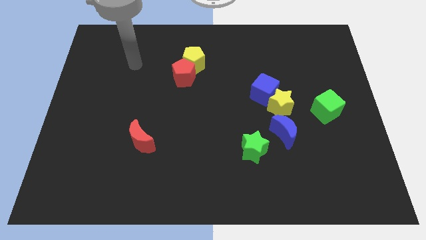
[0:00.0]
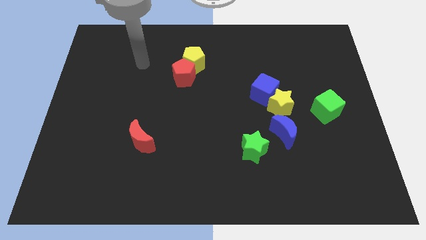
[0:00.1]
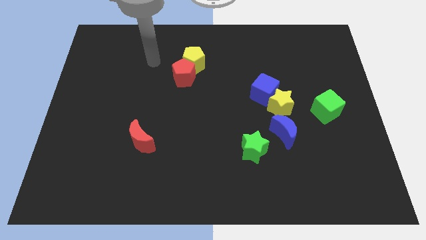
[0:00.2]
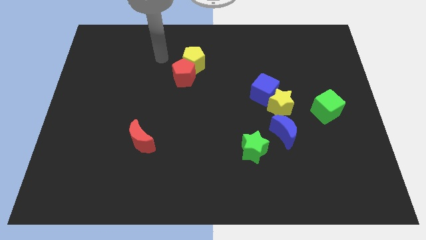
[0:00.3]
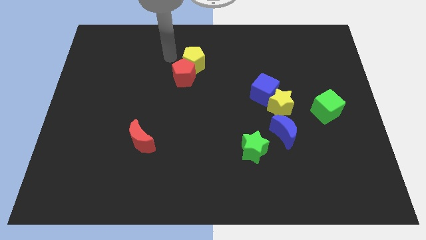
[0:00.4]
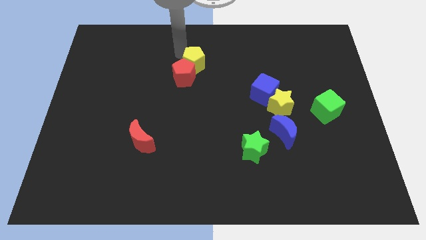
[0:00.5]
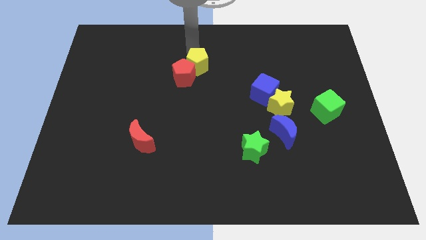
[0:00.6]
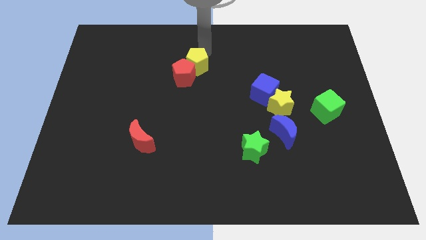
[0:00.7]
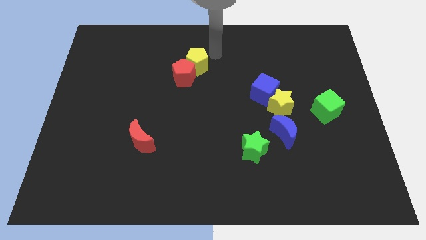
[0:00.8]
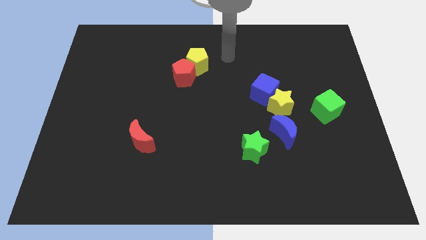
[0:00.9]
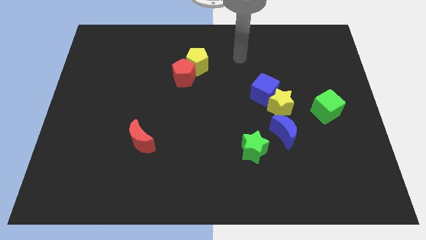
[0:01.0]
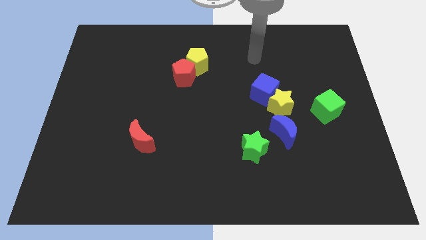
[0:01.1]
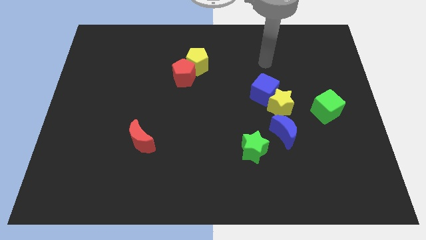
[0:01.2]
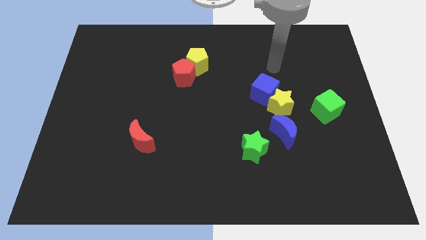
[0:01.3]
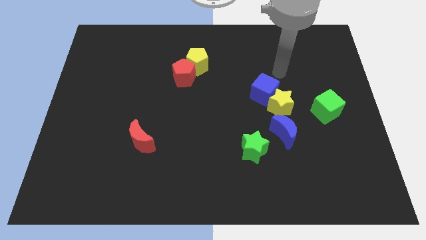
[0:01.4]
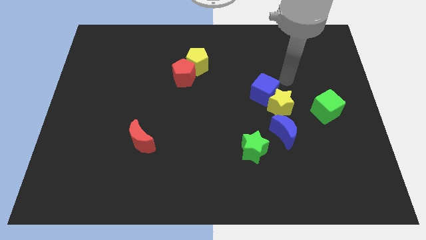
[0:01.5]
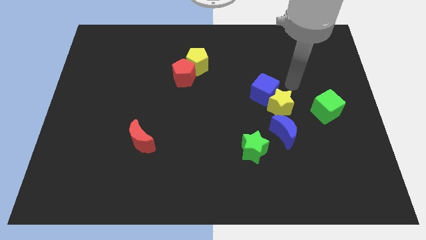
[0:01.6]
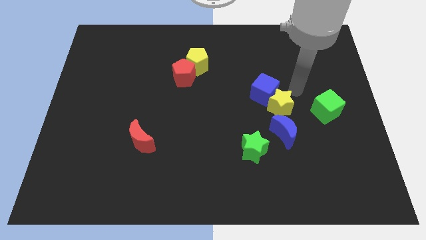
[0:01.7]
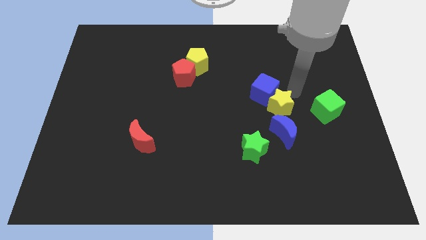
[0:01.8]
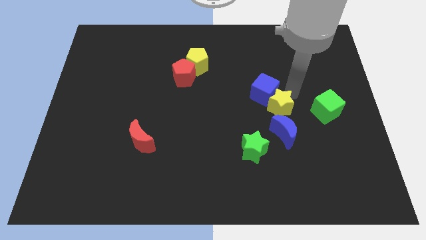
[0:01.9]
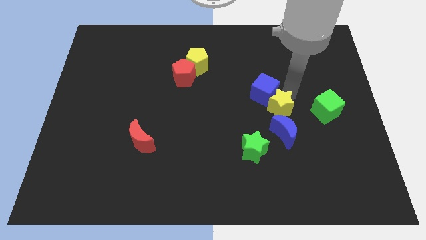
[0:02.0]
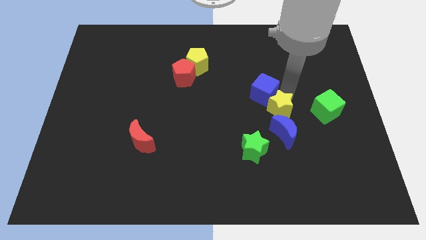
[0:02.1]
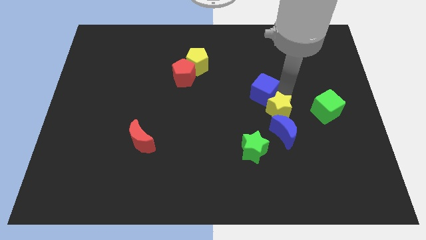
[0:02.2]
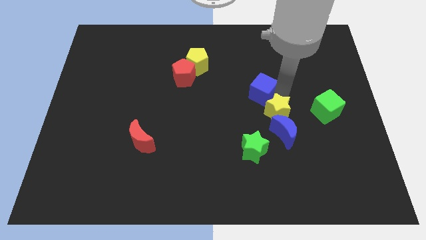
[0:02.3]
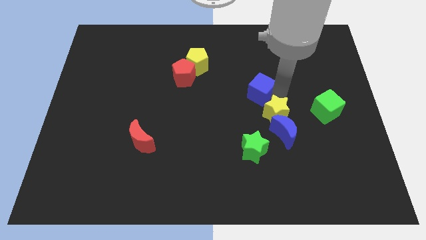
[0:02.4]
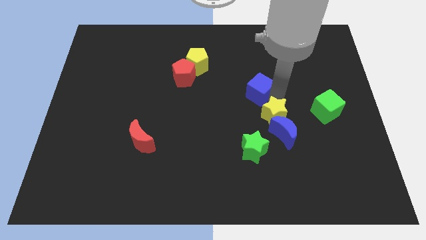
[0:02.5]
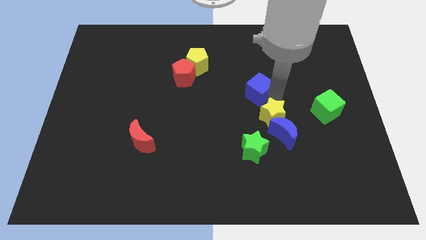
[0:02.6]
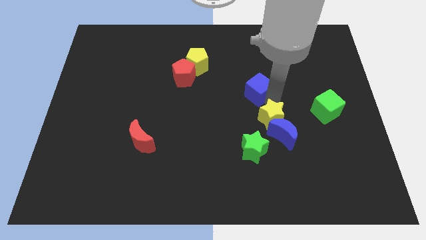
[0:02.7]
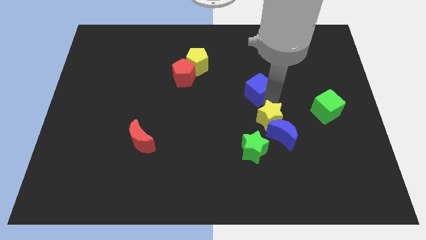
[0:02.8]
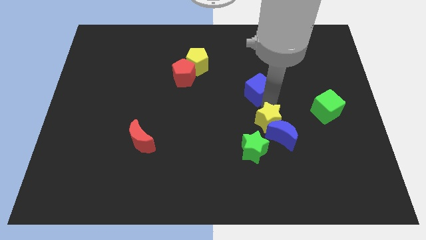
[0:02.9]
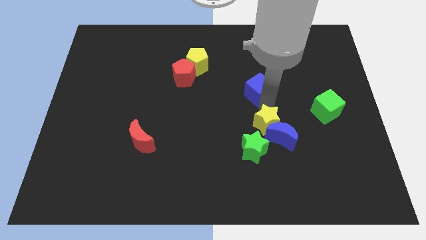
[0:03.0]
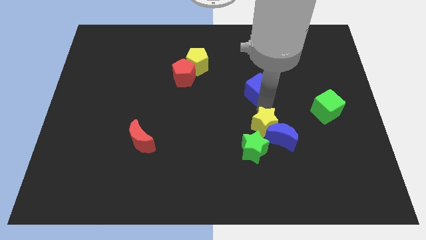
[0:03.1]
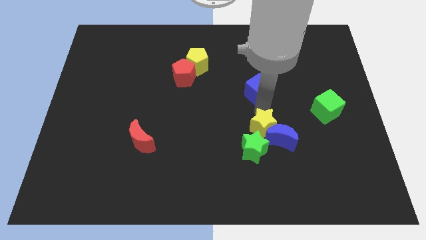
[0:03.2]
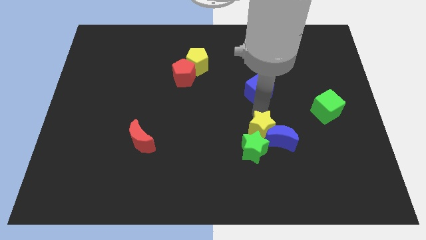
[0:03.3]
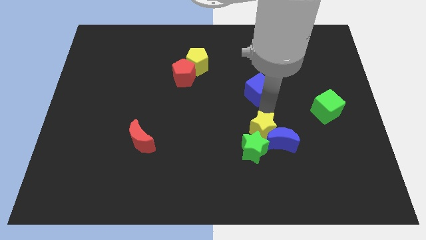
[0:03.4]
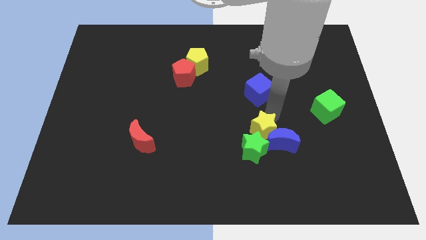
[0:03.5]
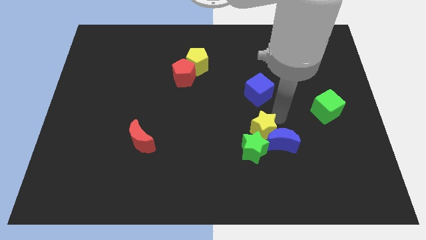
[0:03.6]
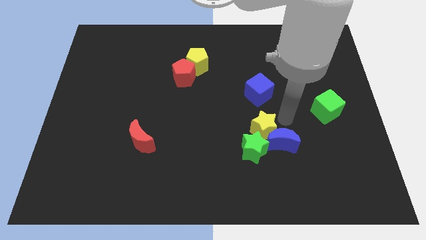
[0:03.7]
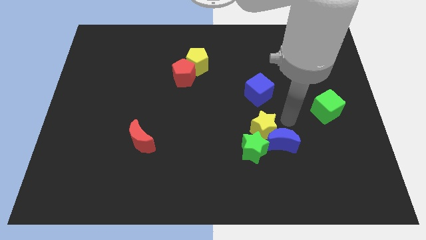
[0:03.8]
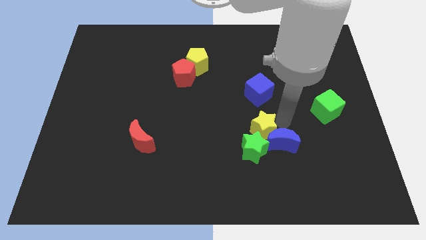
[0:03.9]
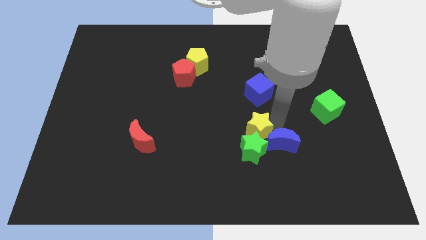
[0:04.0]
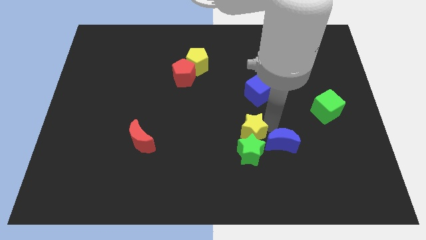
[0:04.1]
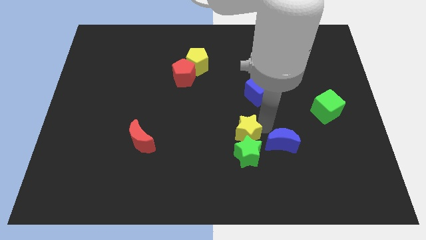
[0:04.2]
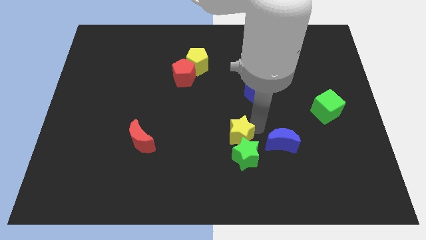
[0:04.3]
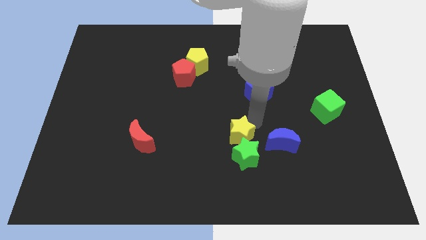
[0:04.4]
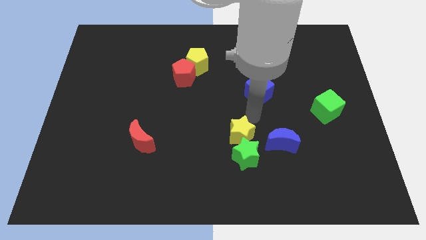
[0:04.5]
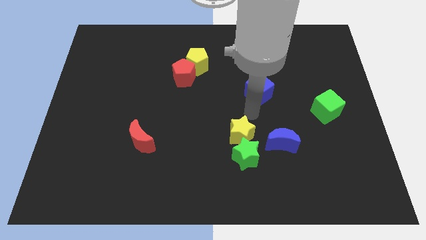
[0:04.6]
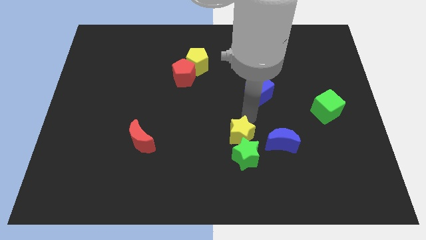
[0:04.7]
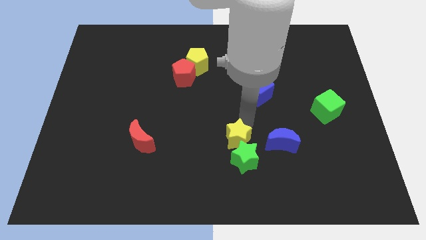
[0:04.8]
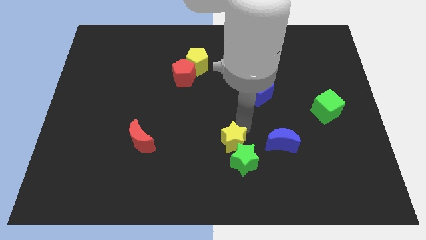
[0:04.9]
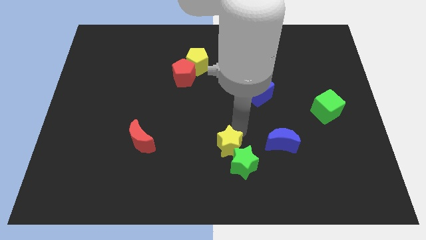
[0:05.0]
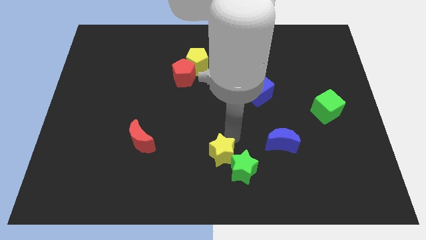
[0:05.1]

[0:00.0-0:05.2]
push the yellow star to the bottom

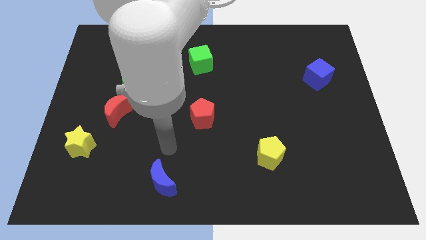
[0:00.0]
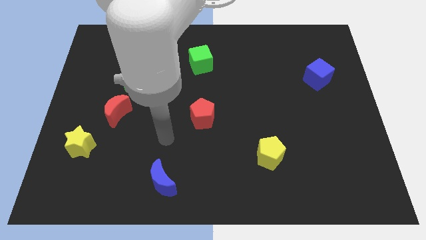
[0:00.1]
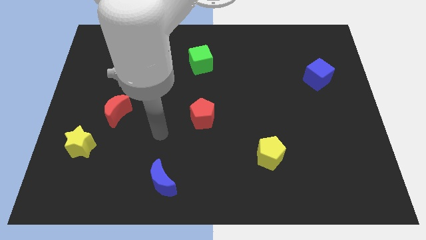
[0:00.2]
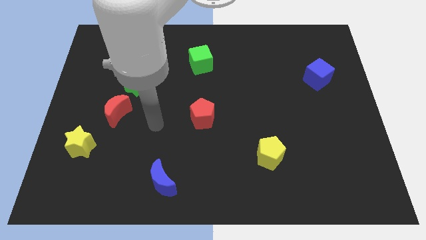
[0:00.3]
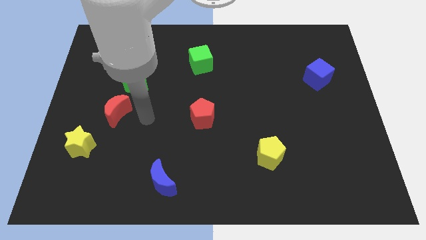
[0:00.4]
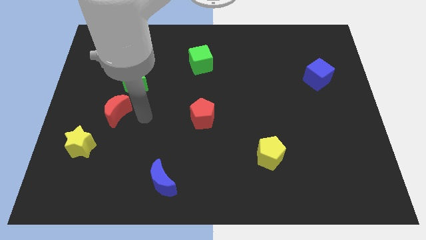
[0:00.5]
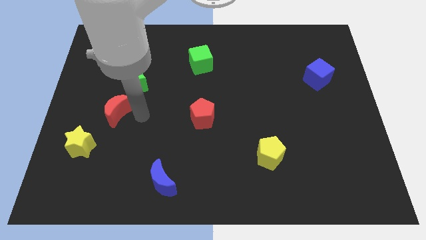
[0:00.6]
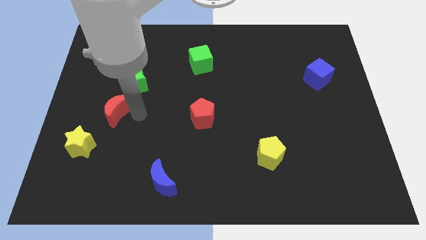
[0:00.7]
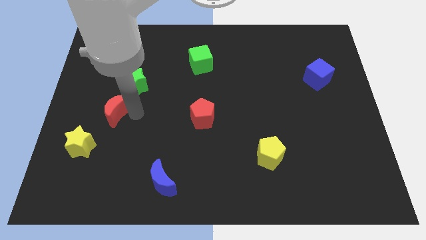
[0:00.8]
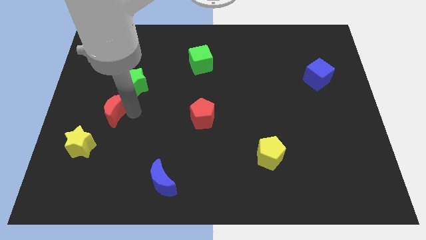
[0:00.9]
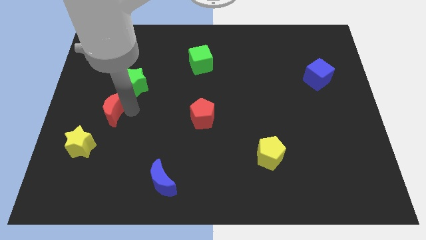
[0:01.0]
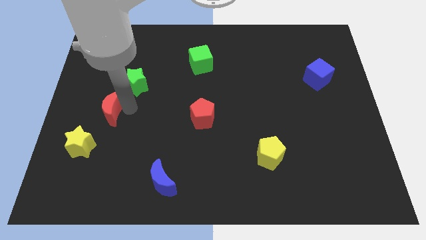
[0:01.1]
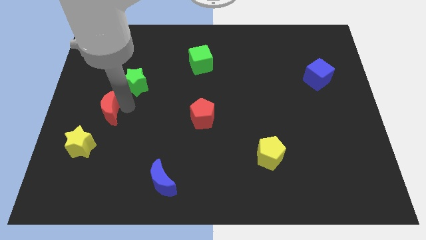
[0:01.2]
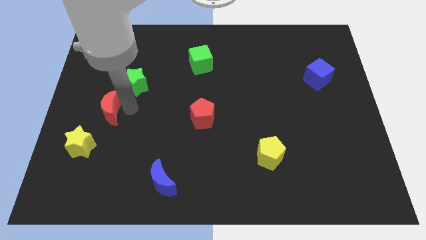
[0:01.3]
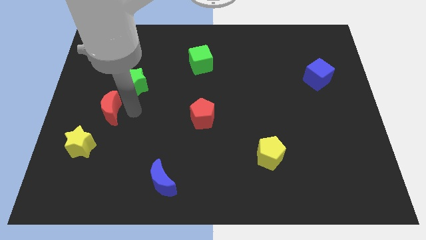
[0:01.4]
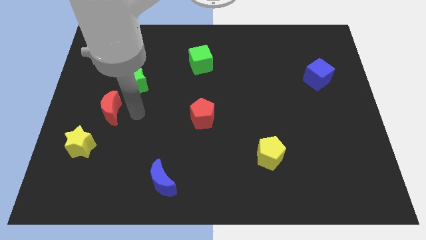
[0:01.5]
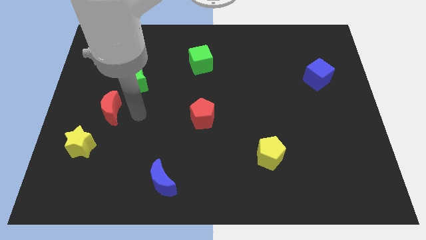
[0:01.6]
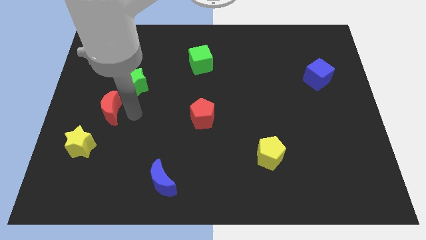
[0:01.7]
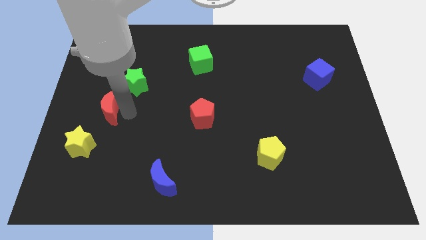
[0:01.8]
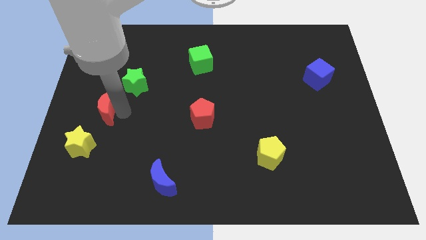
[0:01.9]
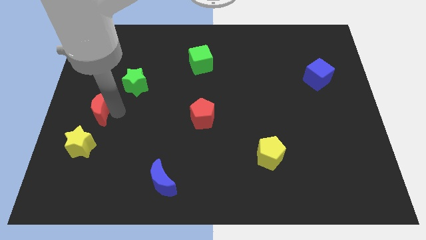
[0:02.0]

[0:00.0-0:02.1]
push the red moon to the left side
